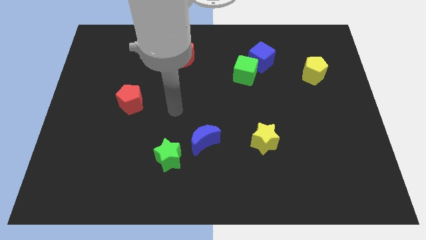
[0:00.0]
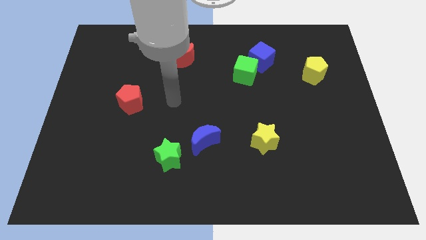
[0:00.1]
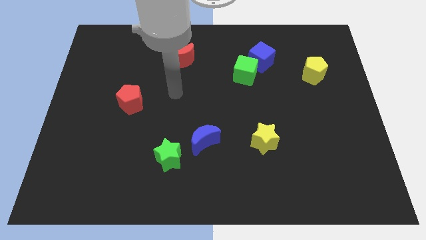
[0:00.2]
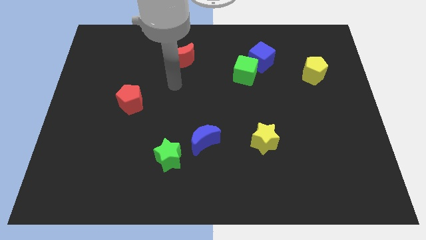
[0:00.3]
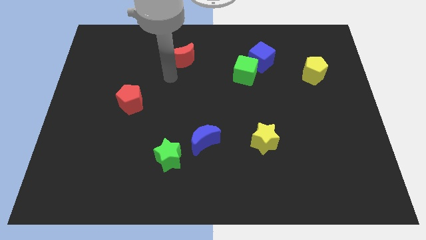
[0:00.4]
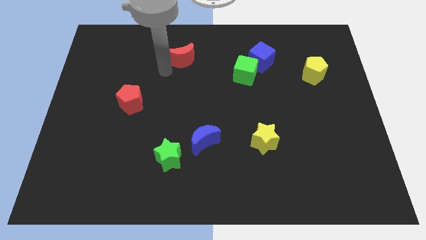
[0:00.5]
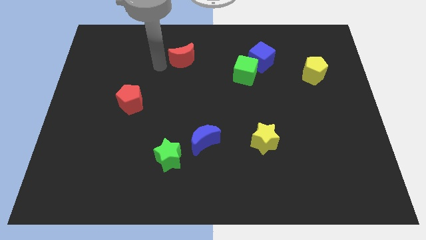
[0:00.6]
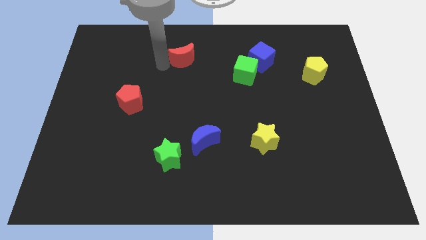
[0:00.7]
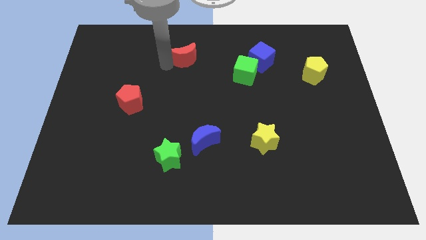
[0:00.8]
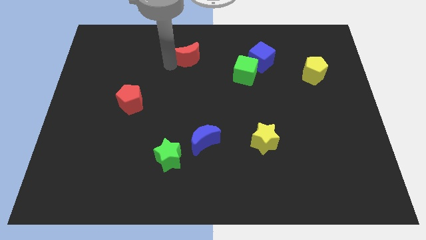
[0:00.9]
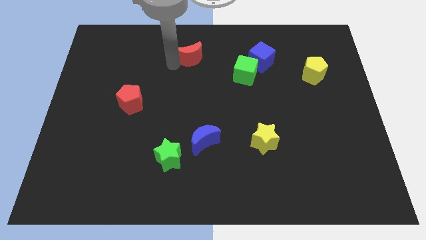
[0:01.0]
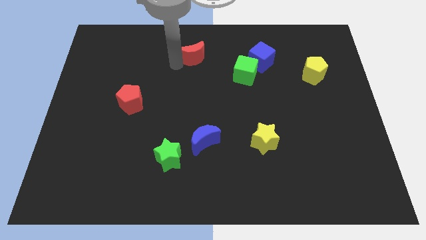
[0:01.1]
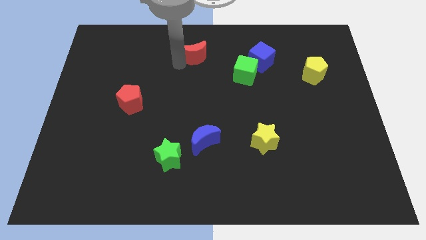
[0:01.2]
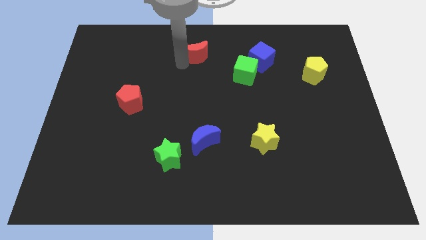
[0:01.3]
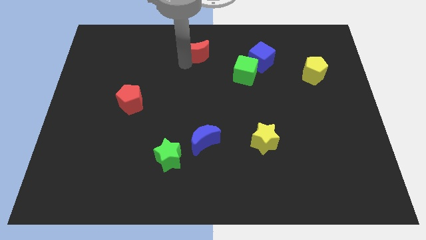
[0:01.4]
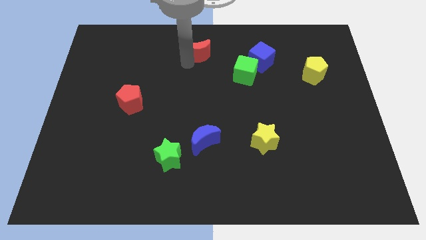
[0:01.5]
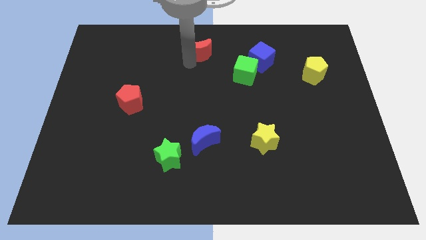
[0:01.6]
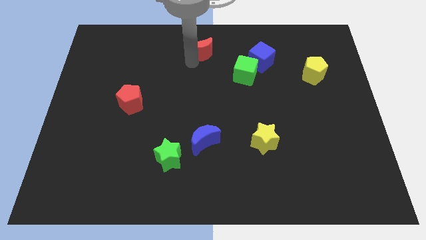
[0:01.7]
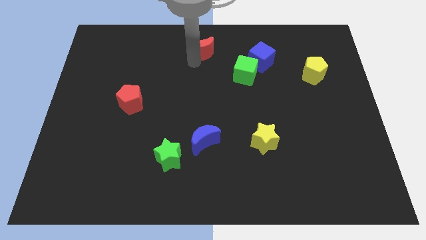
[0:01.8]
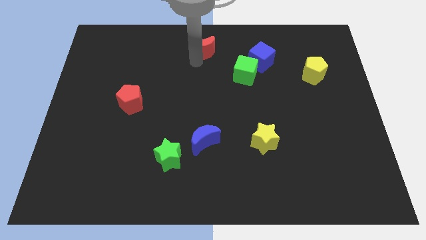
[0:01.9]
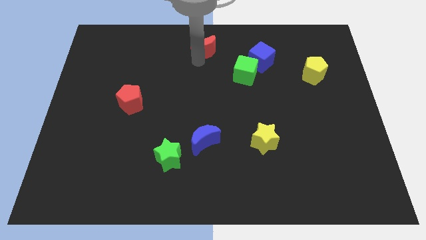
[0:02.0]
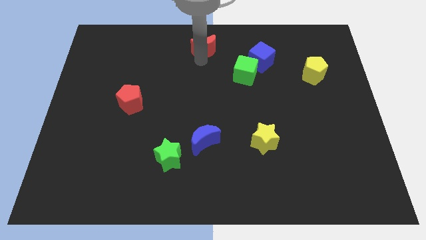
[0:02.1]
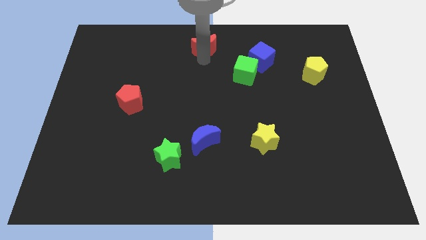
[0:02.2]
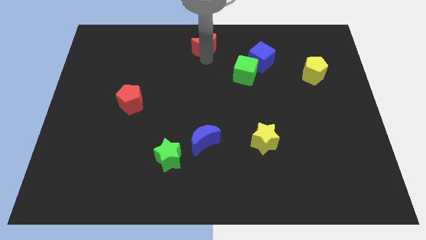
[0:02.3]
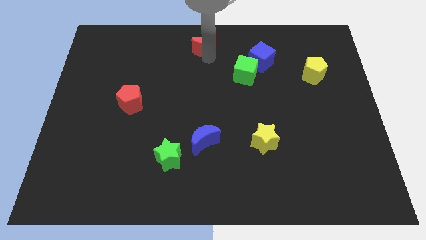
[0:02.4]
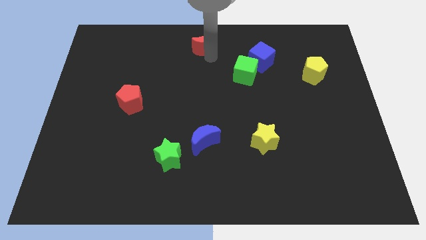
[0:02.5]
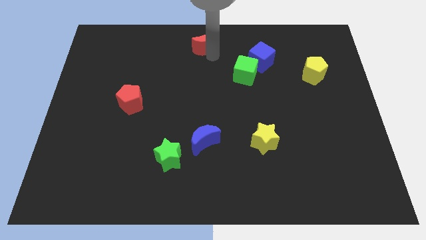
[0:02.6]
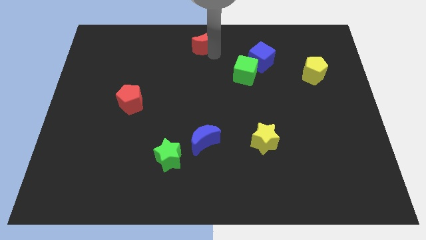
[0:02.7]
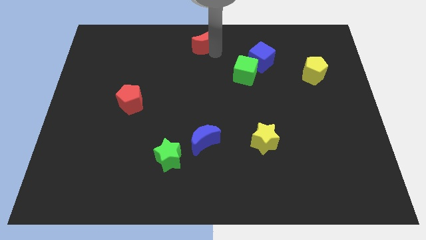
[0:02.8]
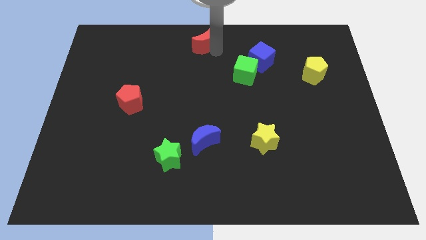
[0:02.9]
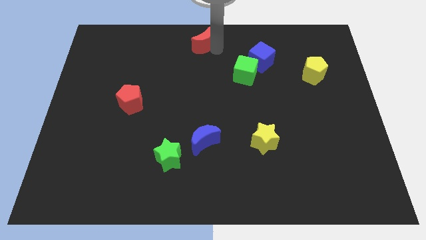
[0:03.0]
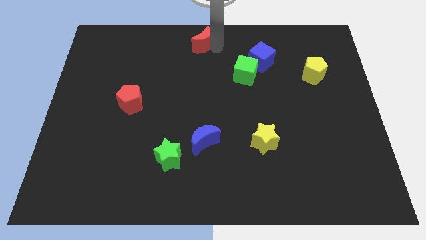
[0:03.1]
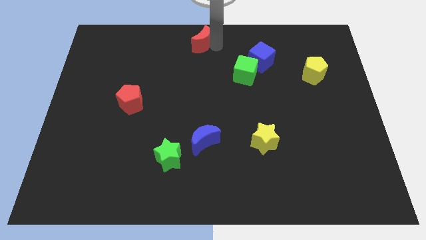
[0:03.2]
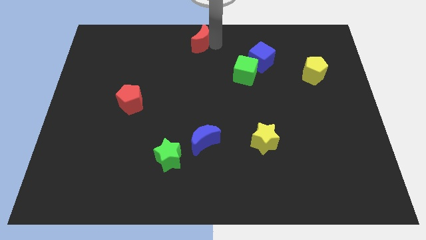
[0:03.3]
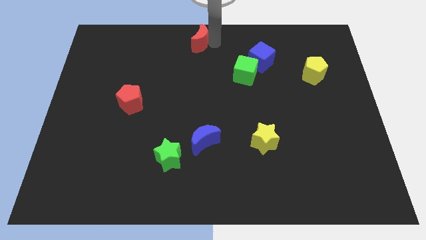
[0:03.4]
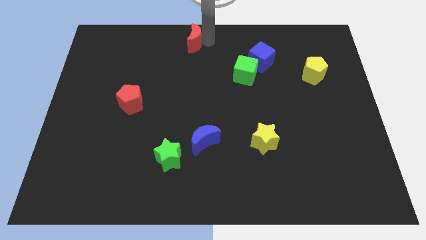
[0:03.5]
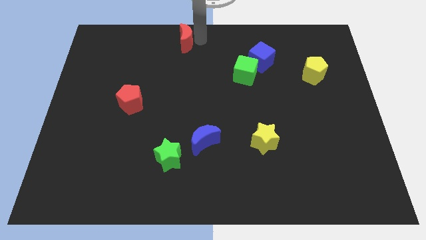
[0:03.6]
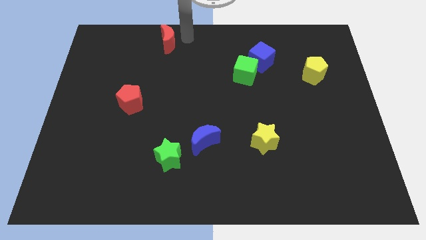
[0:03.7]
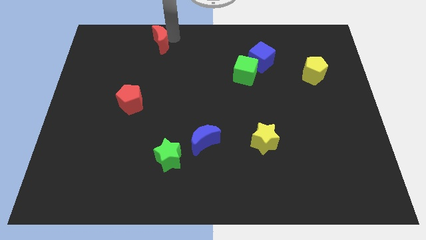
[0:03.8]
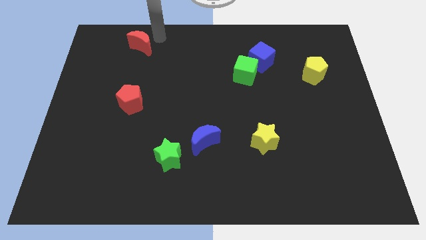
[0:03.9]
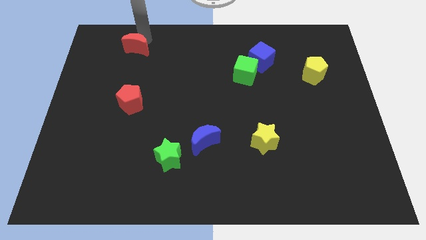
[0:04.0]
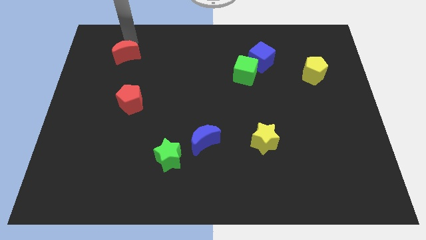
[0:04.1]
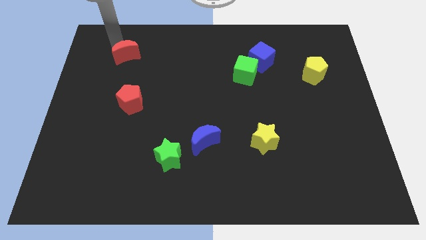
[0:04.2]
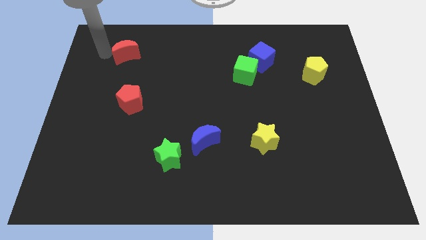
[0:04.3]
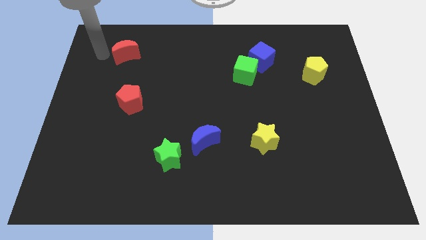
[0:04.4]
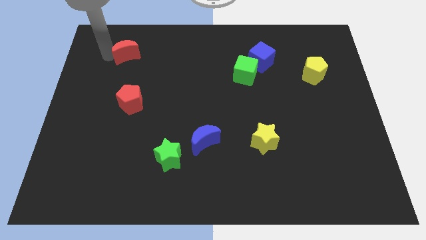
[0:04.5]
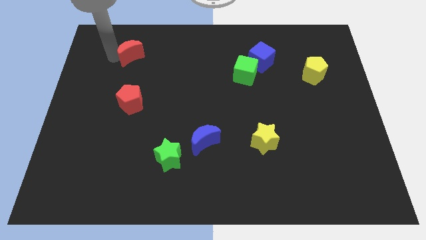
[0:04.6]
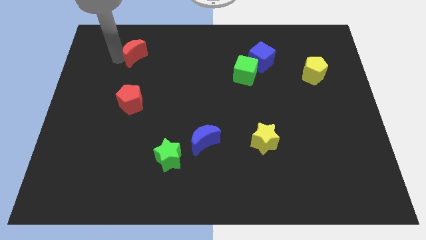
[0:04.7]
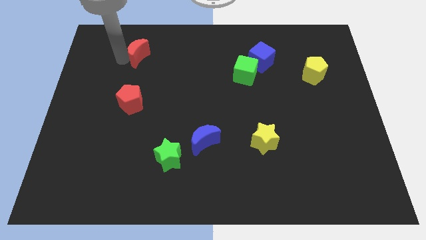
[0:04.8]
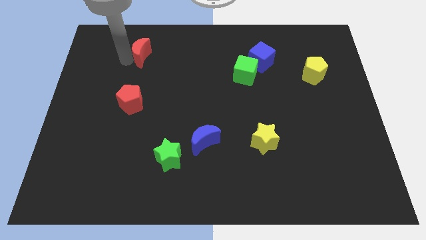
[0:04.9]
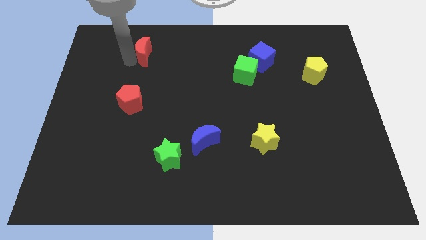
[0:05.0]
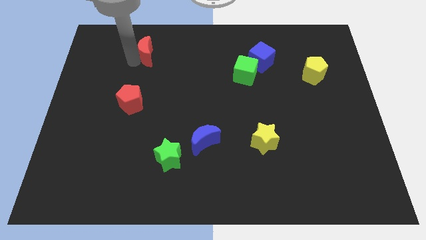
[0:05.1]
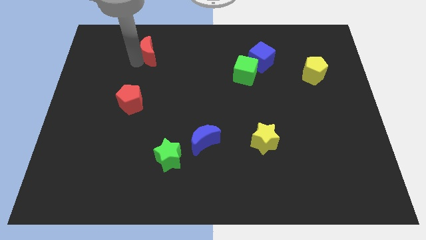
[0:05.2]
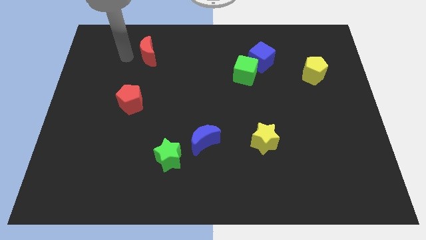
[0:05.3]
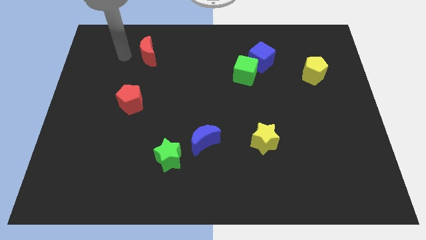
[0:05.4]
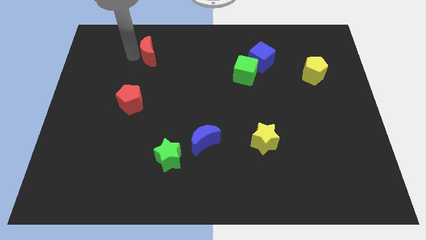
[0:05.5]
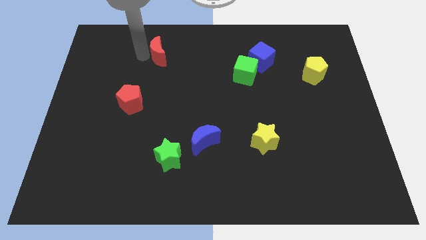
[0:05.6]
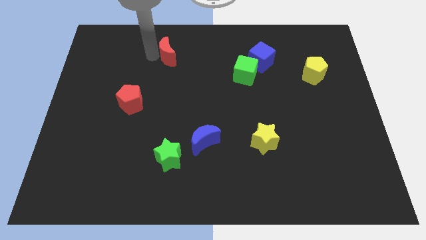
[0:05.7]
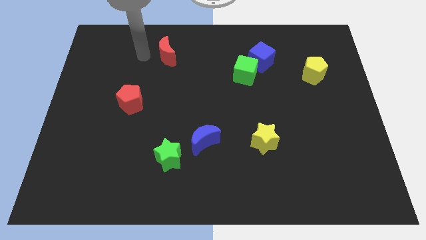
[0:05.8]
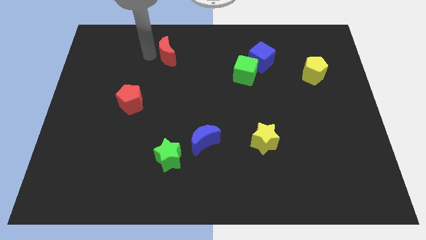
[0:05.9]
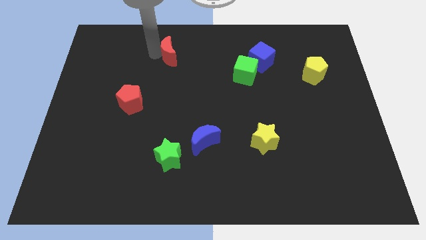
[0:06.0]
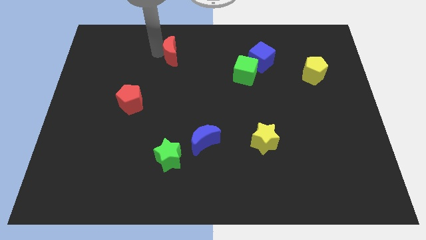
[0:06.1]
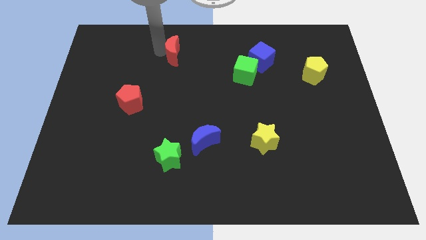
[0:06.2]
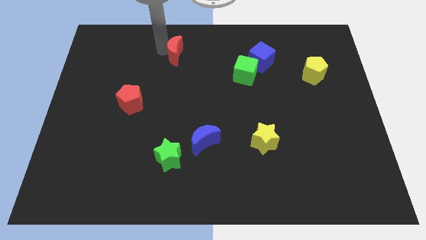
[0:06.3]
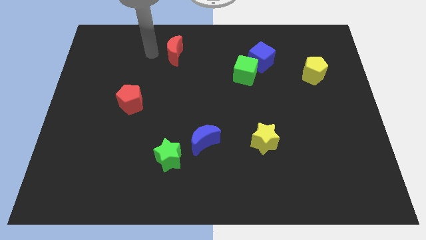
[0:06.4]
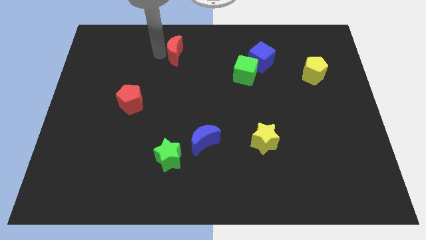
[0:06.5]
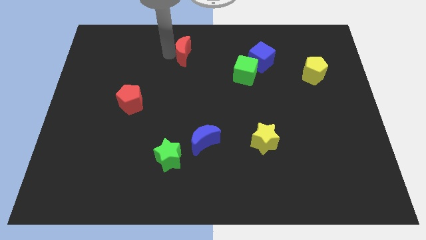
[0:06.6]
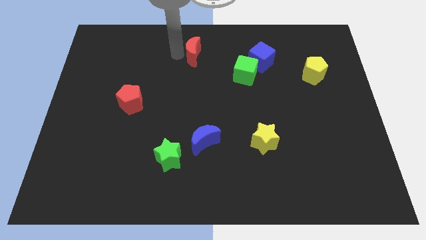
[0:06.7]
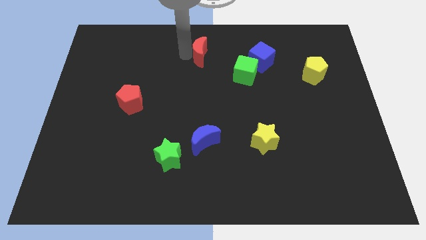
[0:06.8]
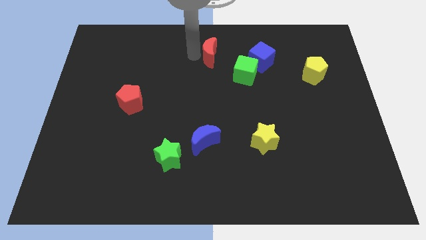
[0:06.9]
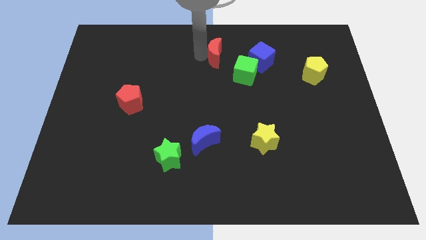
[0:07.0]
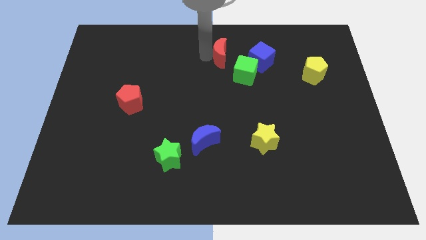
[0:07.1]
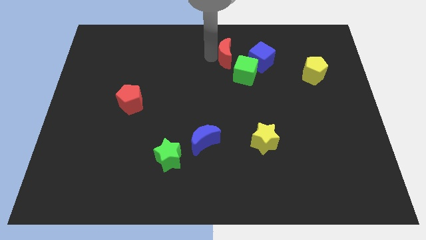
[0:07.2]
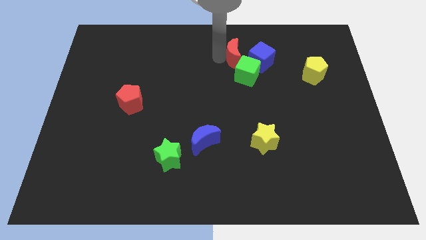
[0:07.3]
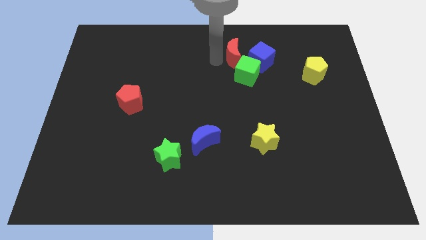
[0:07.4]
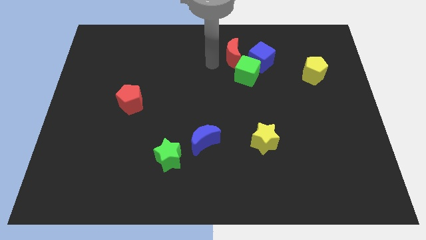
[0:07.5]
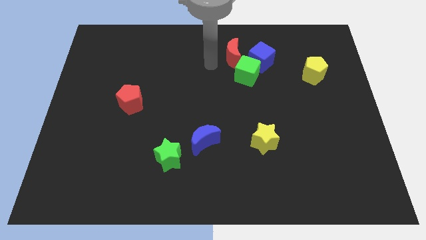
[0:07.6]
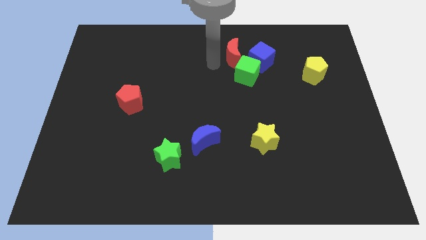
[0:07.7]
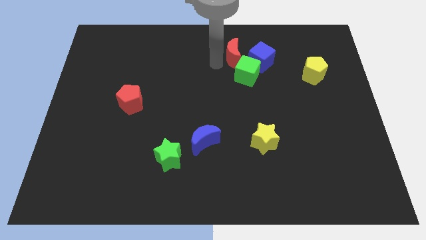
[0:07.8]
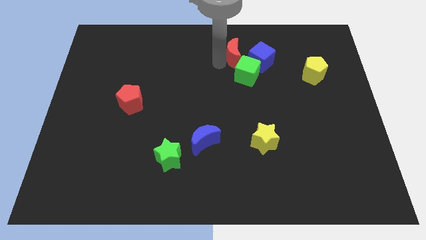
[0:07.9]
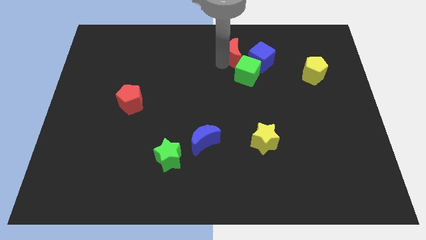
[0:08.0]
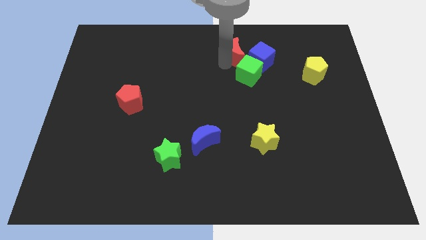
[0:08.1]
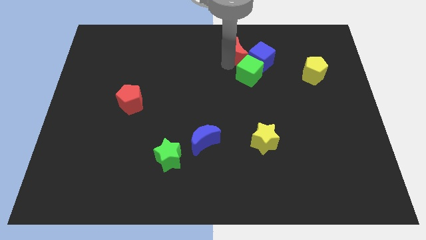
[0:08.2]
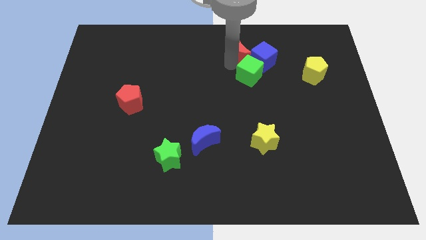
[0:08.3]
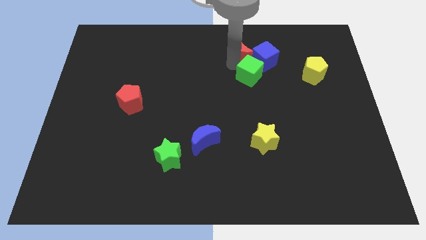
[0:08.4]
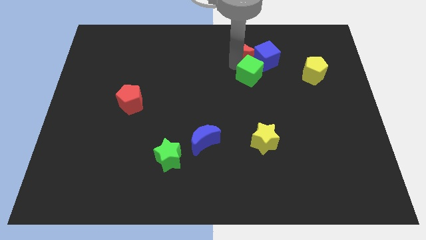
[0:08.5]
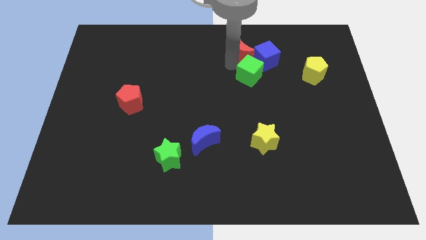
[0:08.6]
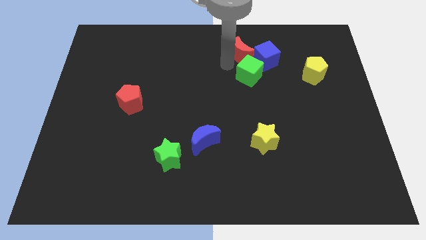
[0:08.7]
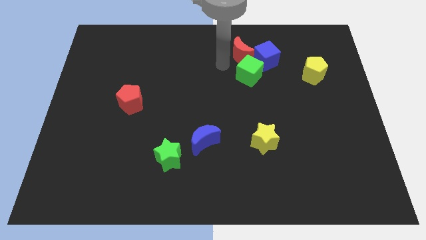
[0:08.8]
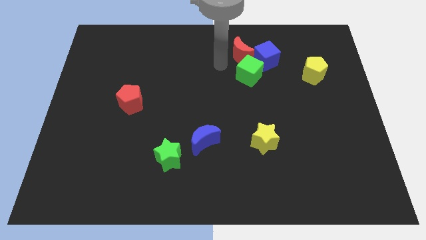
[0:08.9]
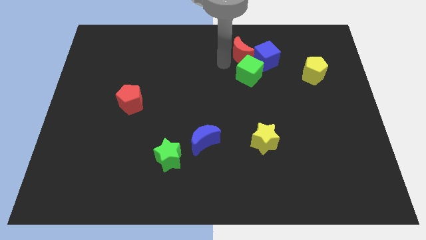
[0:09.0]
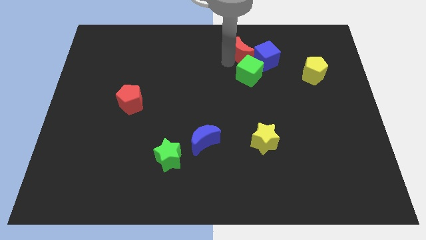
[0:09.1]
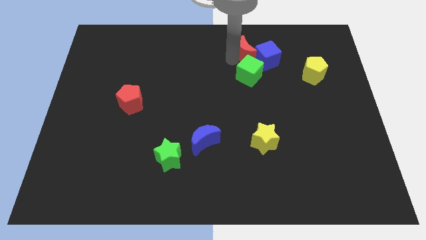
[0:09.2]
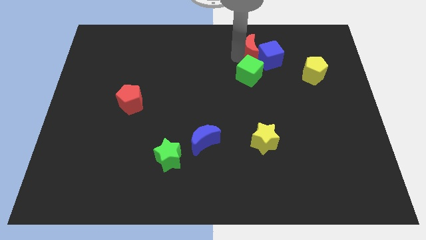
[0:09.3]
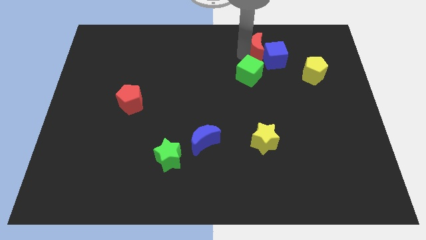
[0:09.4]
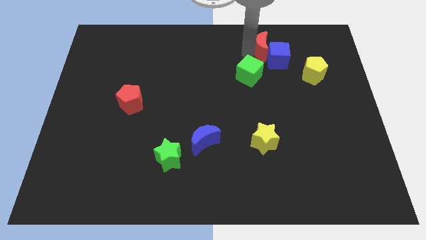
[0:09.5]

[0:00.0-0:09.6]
push the red moon to the right
